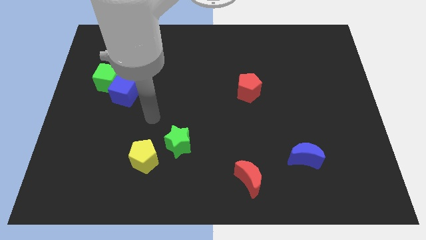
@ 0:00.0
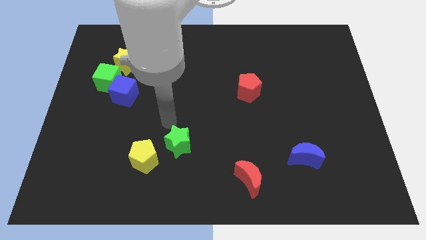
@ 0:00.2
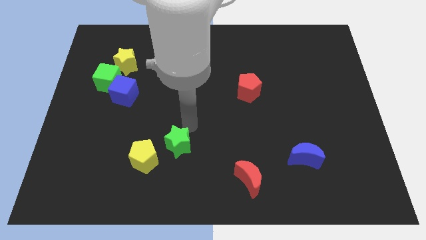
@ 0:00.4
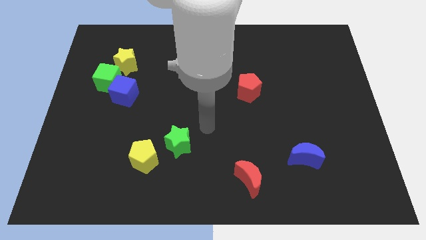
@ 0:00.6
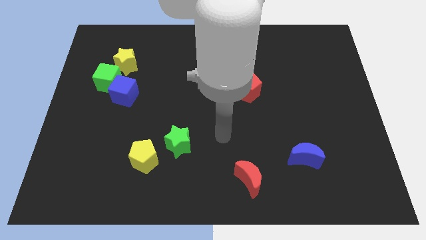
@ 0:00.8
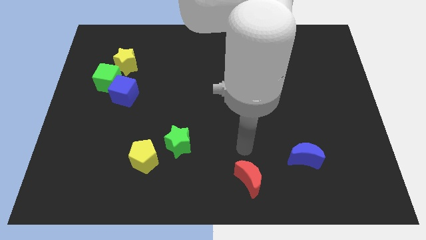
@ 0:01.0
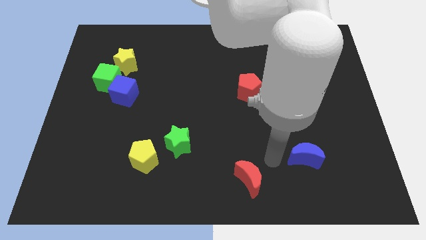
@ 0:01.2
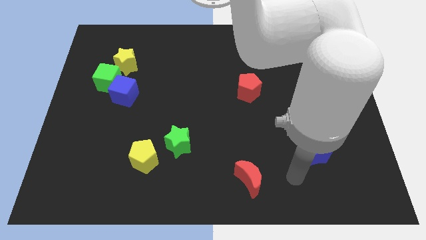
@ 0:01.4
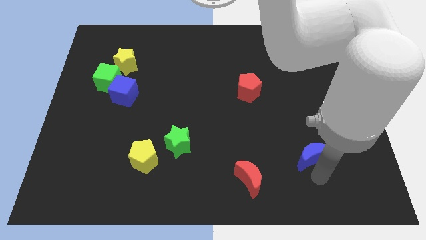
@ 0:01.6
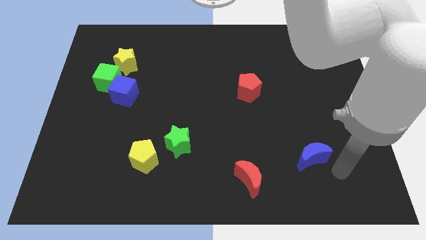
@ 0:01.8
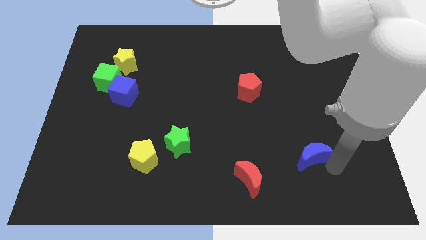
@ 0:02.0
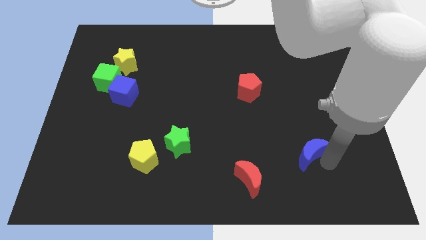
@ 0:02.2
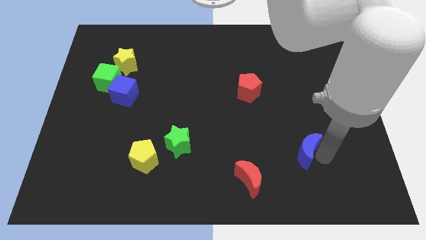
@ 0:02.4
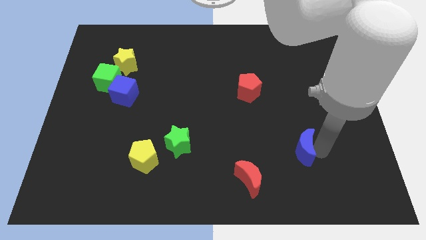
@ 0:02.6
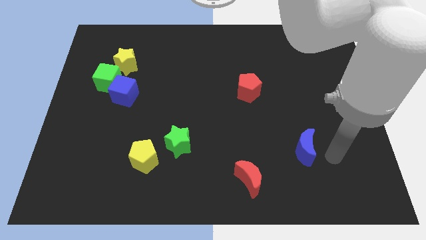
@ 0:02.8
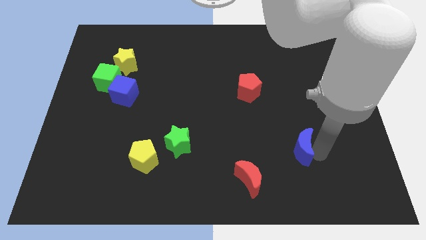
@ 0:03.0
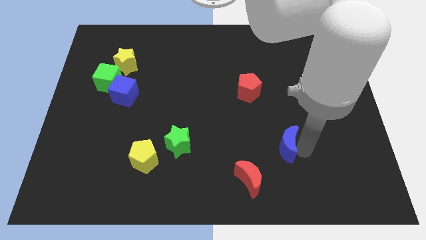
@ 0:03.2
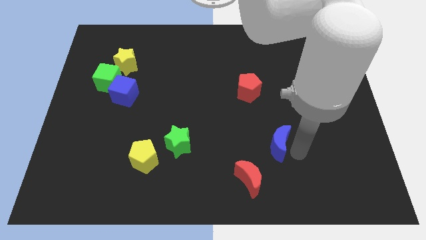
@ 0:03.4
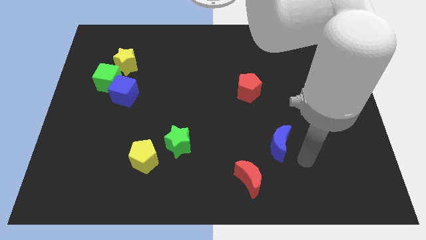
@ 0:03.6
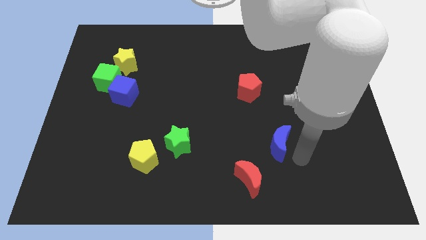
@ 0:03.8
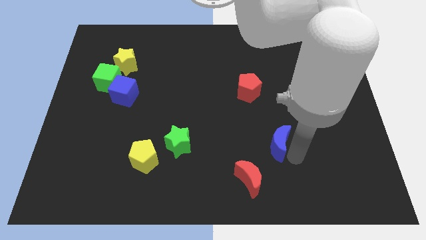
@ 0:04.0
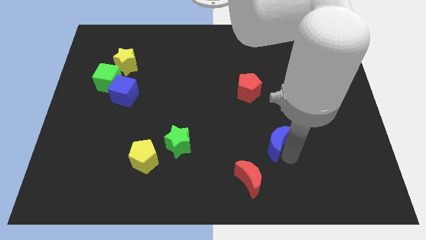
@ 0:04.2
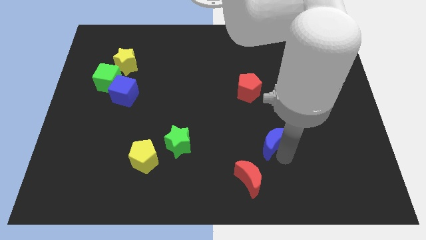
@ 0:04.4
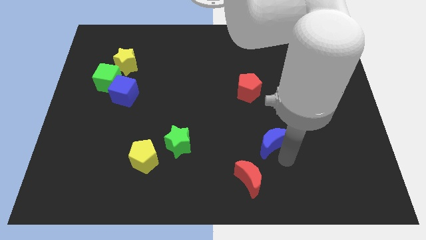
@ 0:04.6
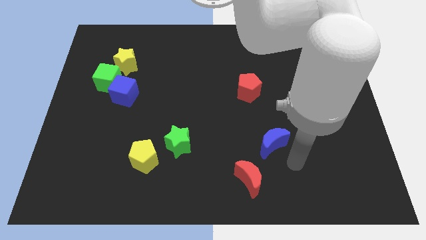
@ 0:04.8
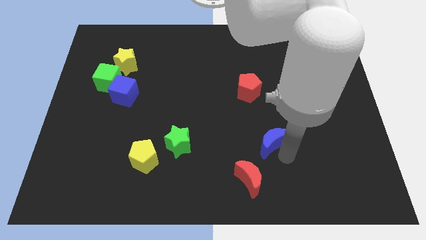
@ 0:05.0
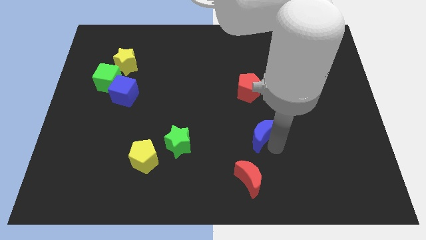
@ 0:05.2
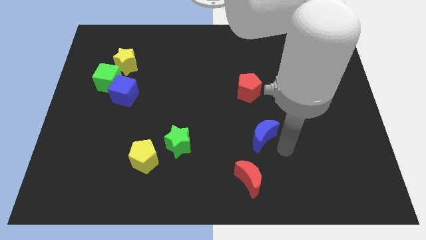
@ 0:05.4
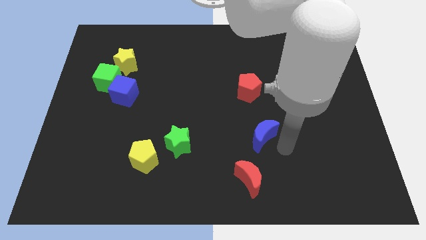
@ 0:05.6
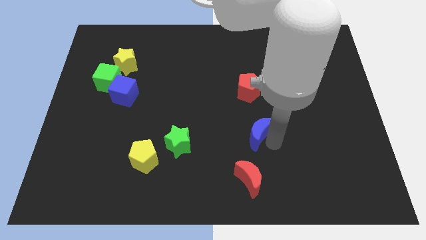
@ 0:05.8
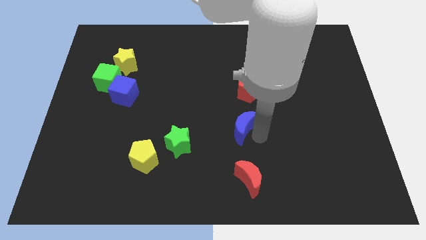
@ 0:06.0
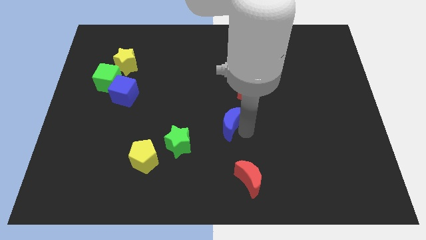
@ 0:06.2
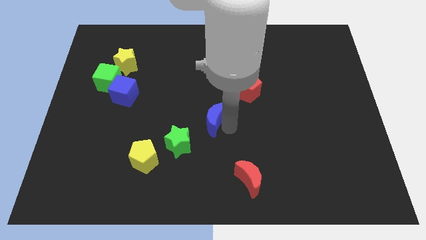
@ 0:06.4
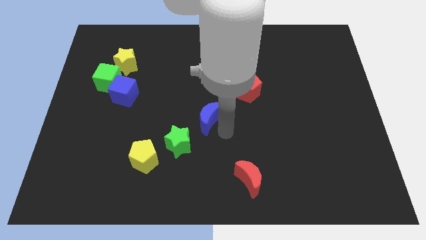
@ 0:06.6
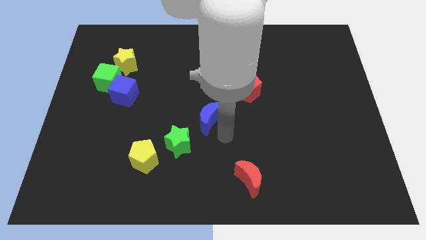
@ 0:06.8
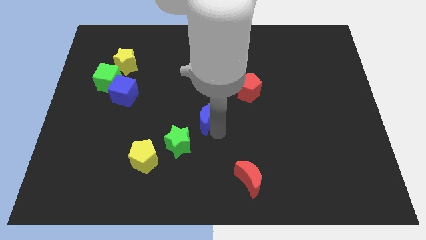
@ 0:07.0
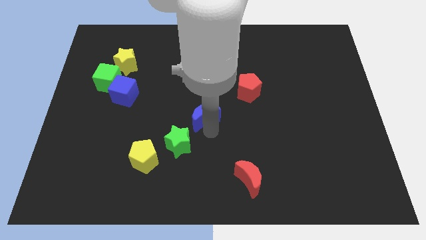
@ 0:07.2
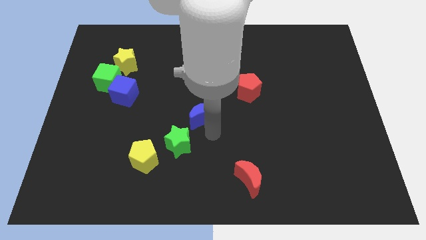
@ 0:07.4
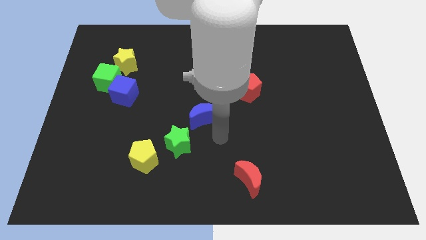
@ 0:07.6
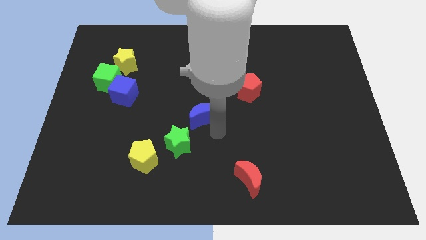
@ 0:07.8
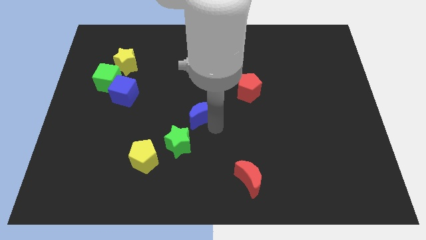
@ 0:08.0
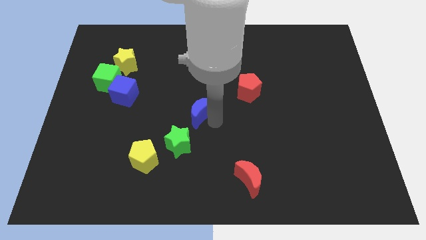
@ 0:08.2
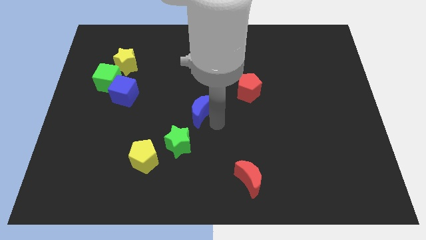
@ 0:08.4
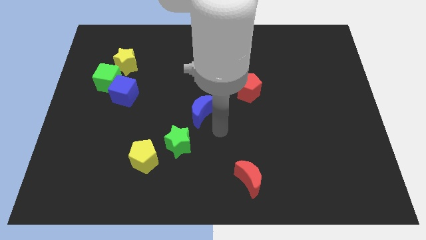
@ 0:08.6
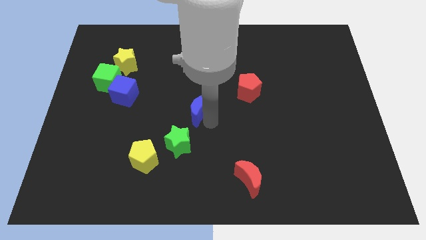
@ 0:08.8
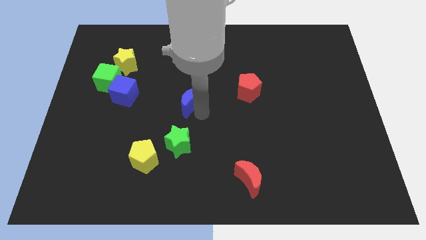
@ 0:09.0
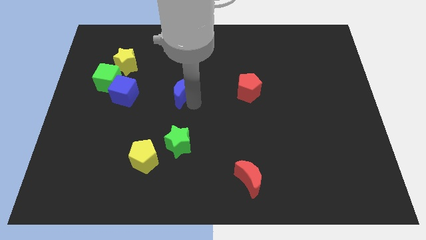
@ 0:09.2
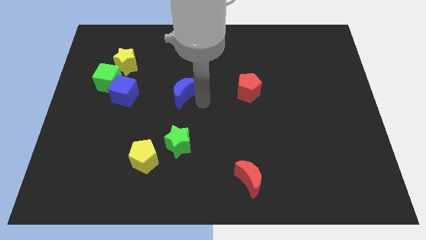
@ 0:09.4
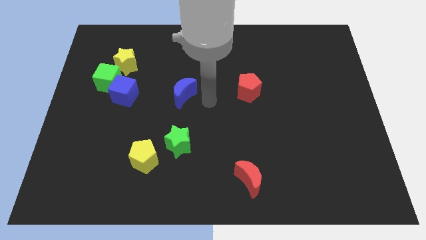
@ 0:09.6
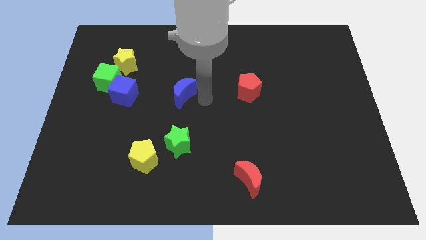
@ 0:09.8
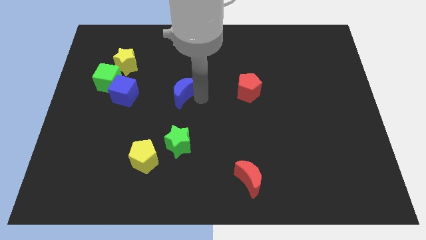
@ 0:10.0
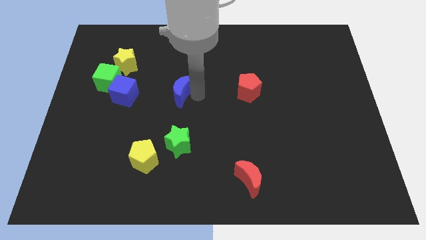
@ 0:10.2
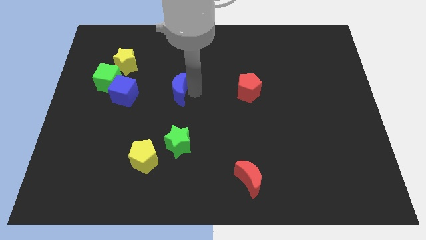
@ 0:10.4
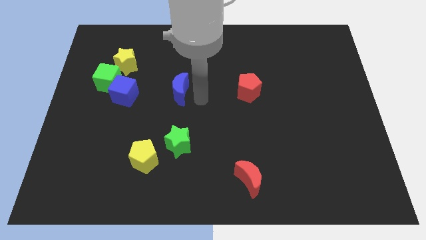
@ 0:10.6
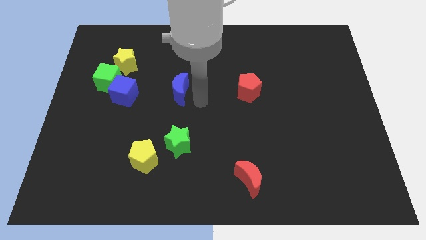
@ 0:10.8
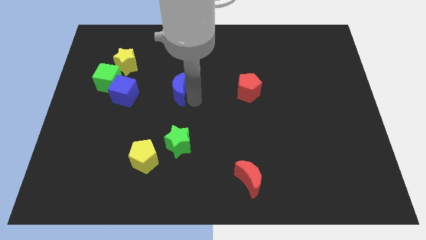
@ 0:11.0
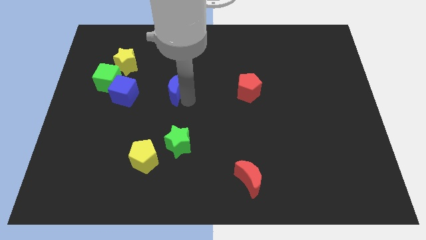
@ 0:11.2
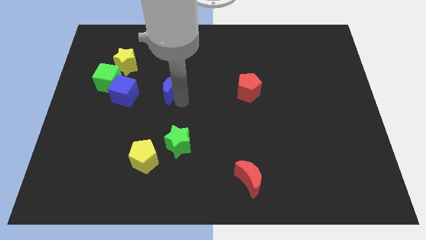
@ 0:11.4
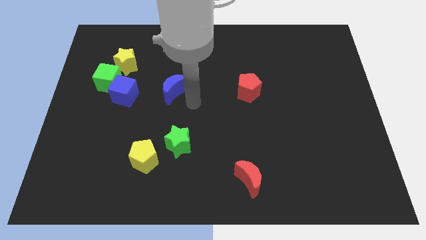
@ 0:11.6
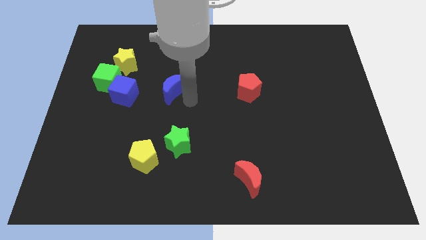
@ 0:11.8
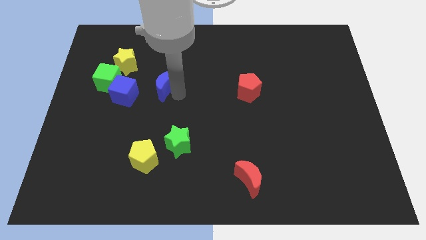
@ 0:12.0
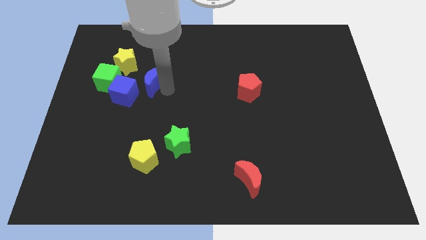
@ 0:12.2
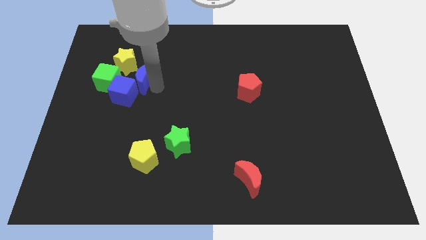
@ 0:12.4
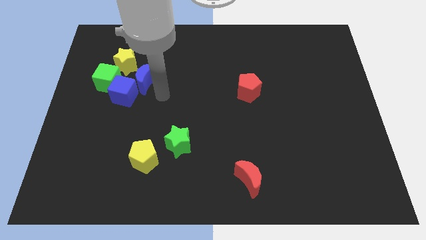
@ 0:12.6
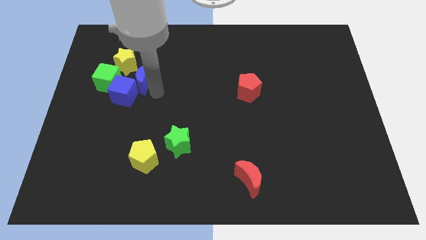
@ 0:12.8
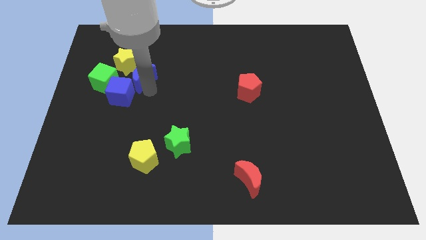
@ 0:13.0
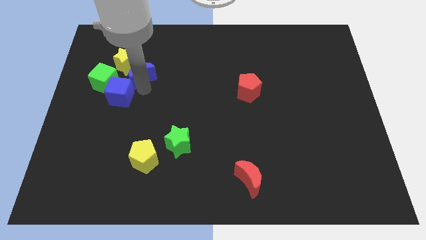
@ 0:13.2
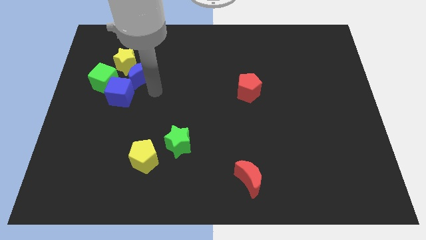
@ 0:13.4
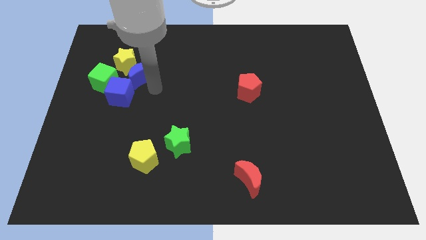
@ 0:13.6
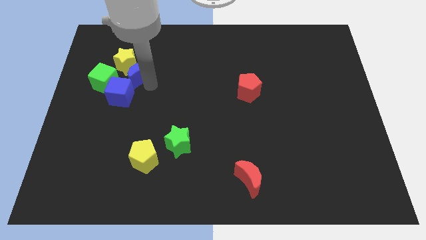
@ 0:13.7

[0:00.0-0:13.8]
put the blue moon close to the yellow star

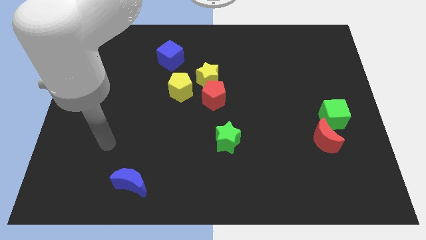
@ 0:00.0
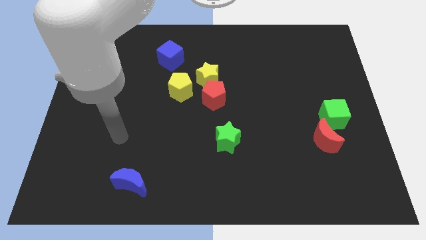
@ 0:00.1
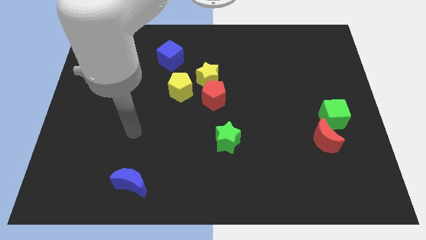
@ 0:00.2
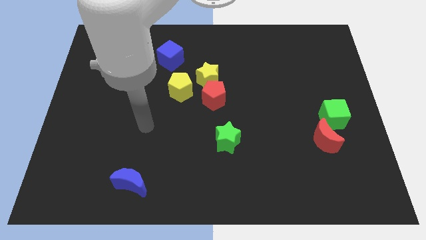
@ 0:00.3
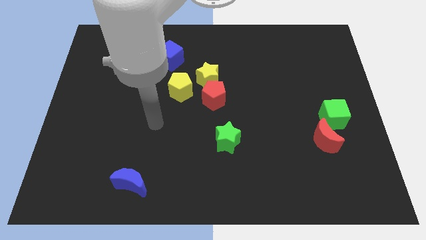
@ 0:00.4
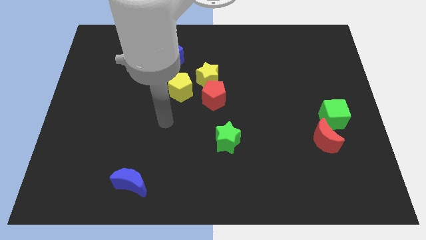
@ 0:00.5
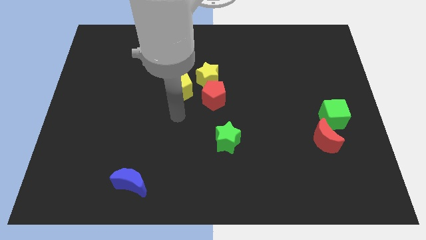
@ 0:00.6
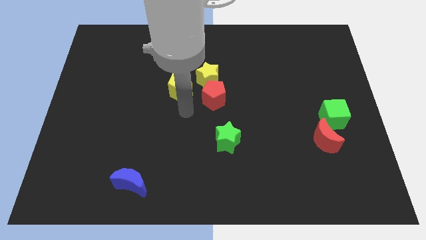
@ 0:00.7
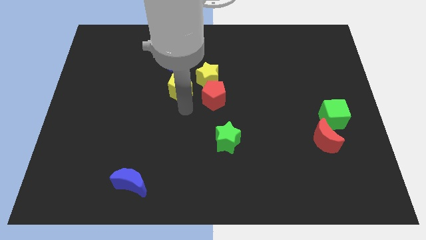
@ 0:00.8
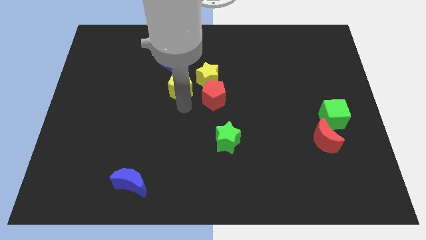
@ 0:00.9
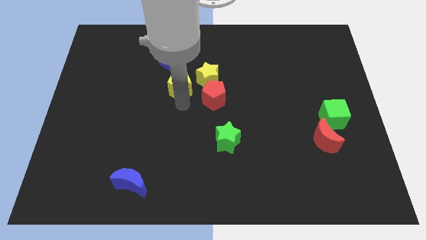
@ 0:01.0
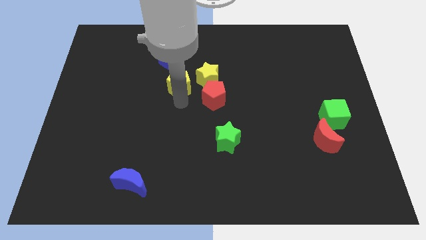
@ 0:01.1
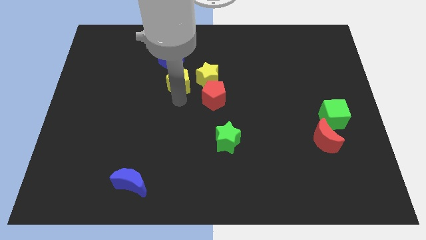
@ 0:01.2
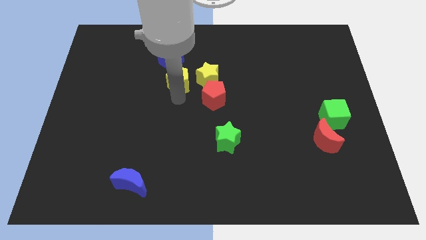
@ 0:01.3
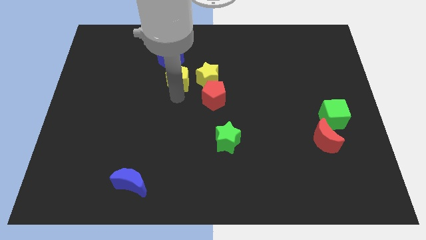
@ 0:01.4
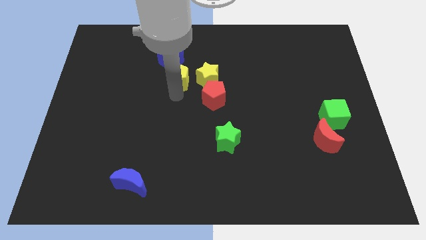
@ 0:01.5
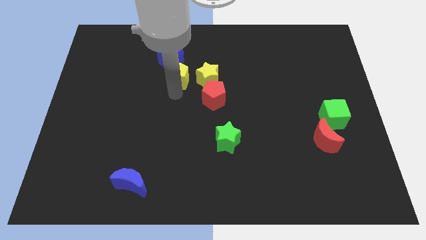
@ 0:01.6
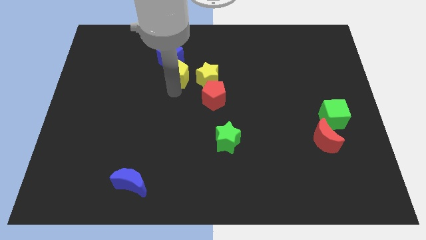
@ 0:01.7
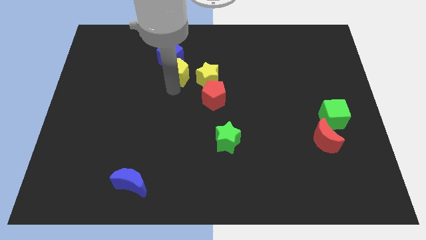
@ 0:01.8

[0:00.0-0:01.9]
push the yellow pentagon towards the blue cube
